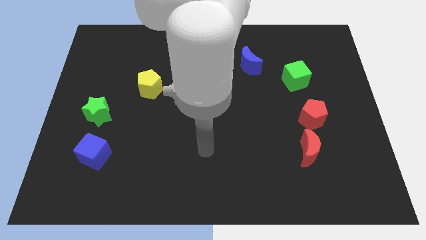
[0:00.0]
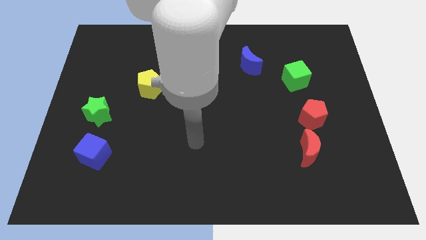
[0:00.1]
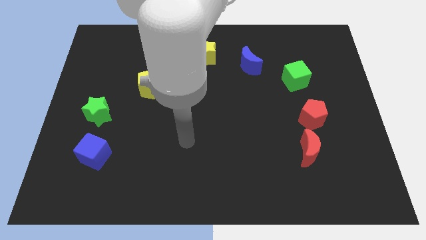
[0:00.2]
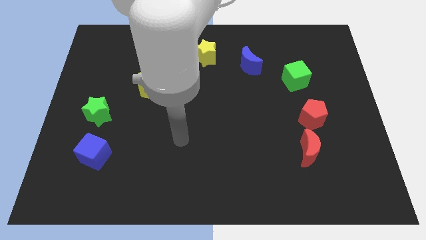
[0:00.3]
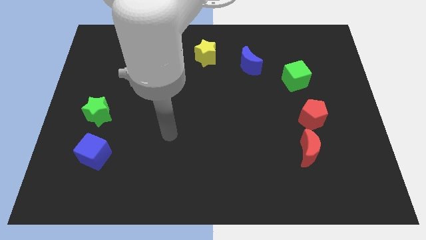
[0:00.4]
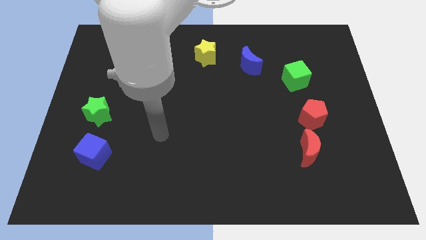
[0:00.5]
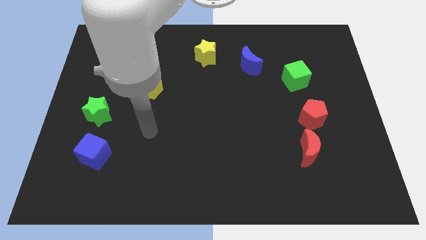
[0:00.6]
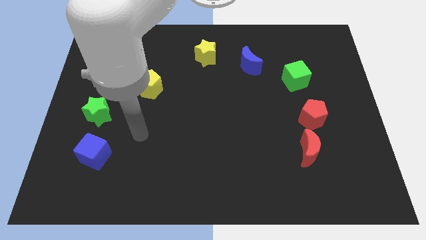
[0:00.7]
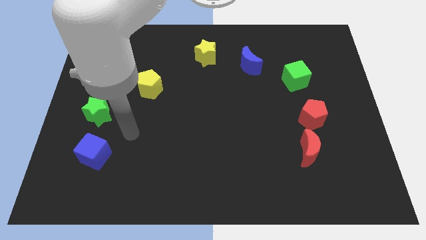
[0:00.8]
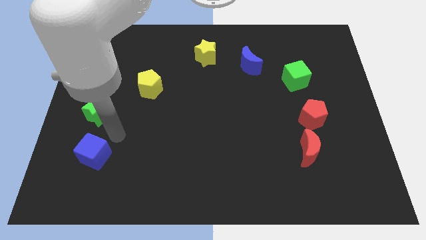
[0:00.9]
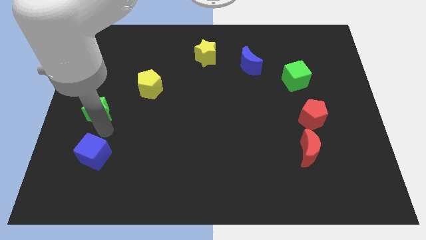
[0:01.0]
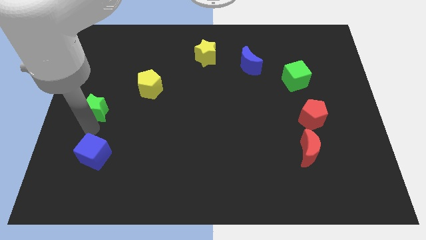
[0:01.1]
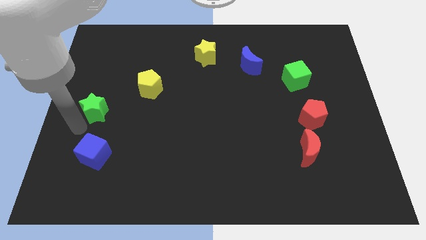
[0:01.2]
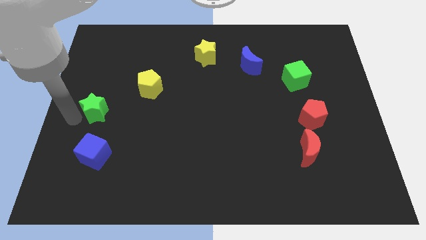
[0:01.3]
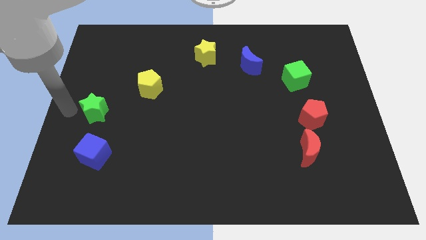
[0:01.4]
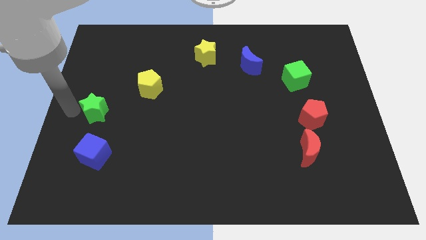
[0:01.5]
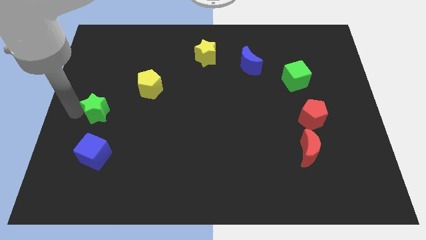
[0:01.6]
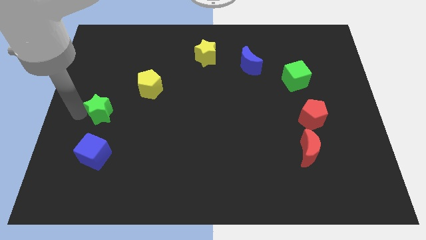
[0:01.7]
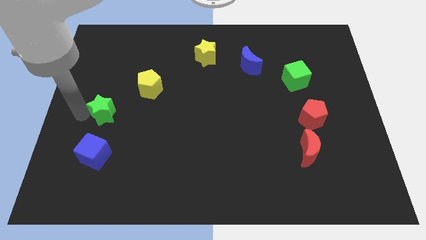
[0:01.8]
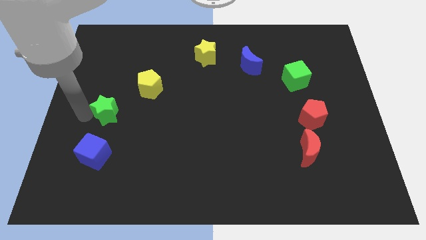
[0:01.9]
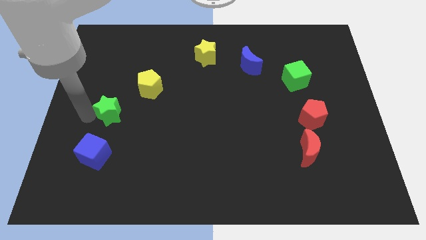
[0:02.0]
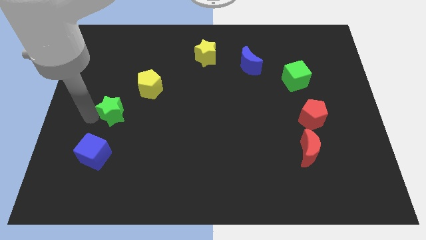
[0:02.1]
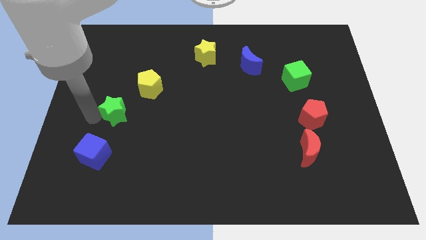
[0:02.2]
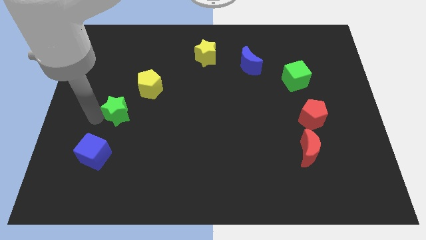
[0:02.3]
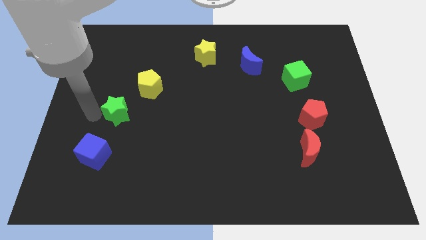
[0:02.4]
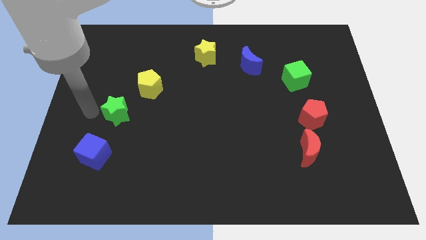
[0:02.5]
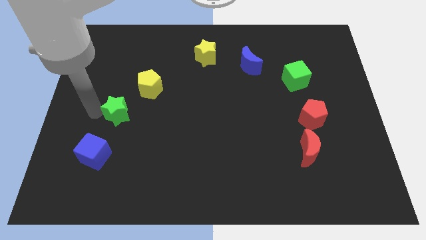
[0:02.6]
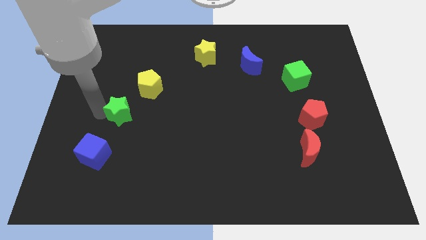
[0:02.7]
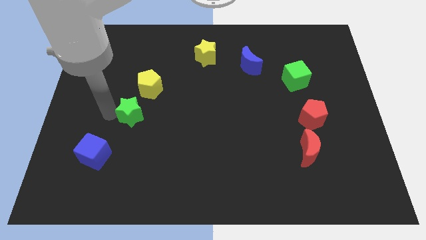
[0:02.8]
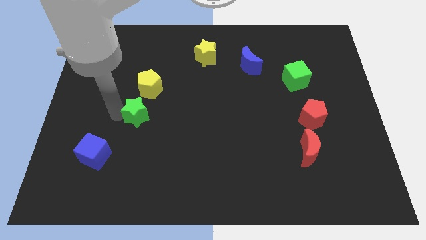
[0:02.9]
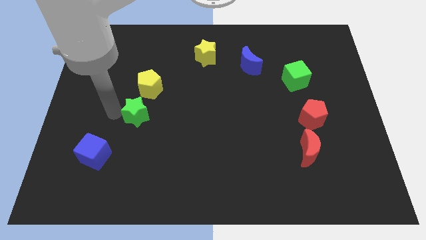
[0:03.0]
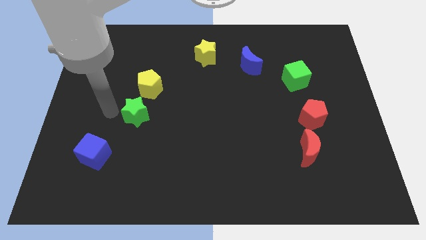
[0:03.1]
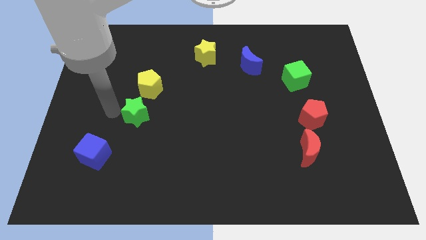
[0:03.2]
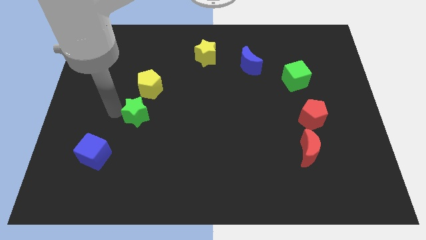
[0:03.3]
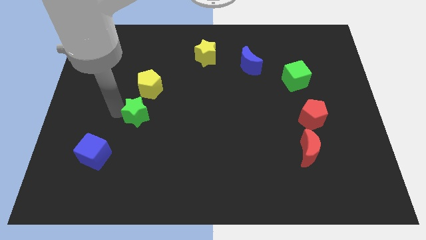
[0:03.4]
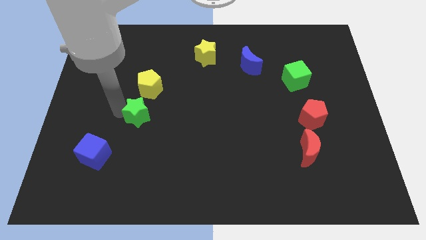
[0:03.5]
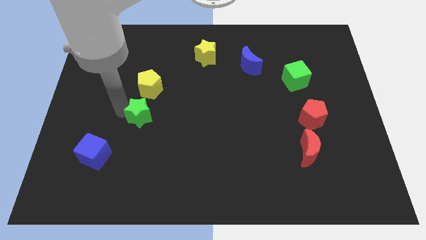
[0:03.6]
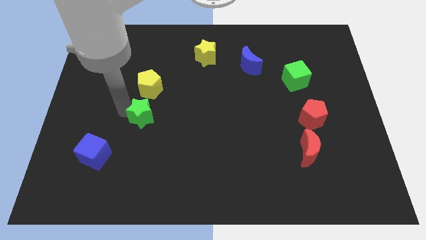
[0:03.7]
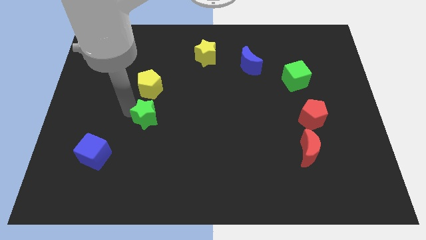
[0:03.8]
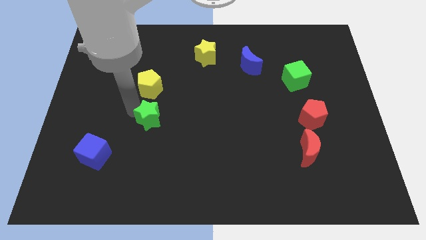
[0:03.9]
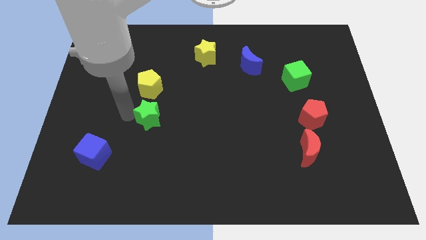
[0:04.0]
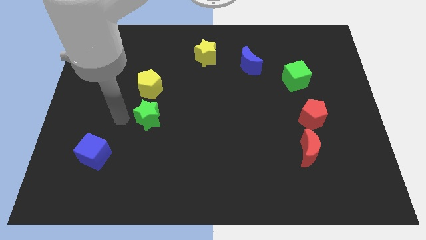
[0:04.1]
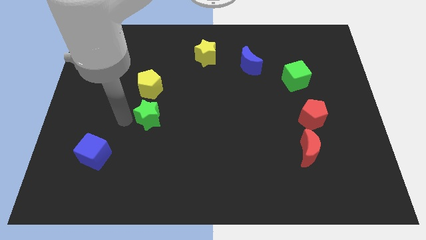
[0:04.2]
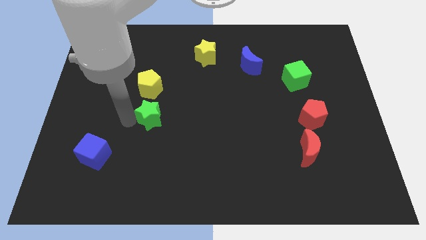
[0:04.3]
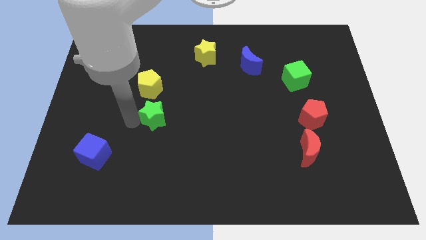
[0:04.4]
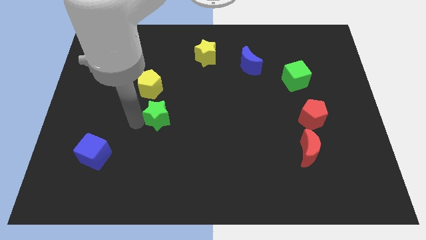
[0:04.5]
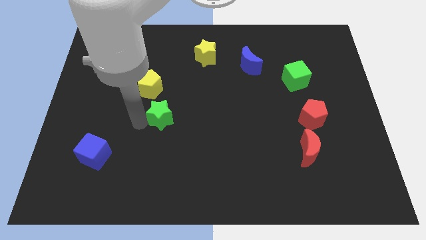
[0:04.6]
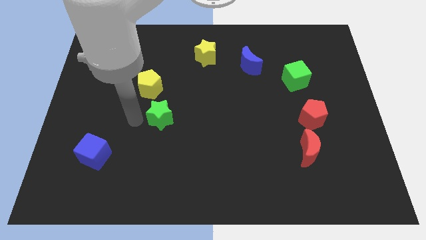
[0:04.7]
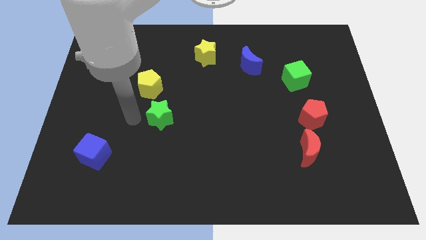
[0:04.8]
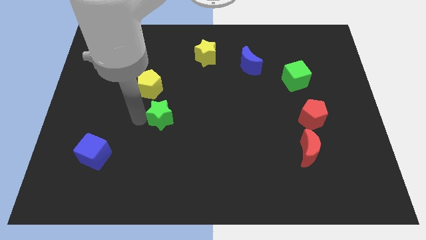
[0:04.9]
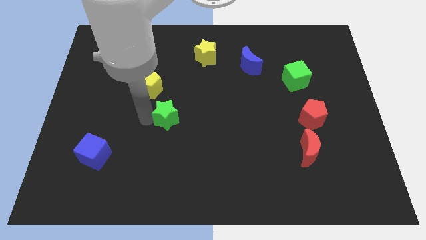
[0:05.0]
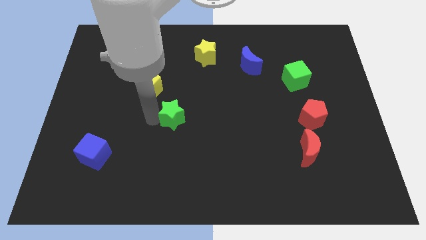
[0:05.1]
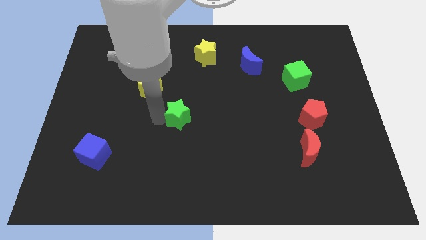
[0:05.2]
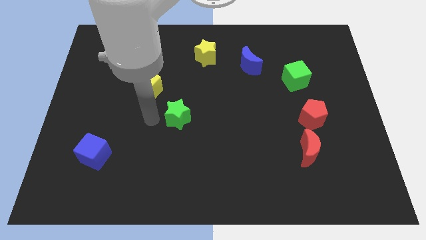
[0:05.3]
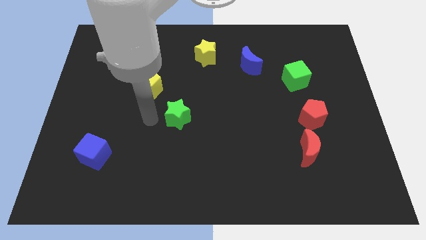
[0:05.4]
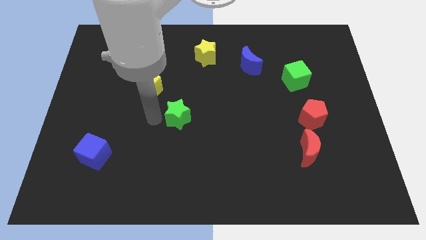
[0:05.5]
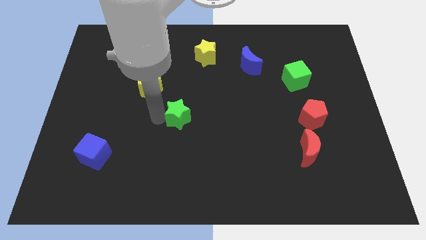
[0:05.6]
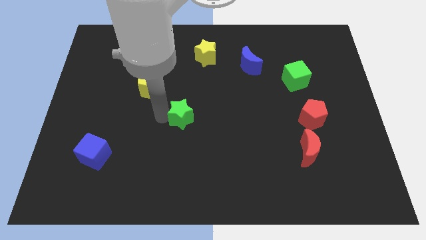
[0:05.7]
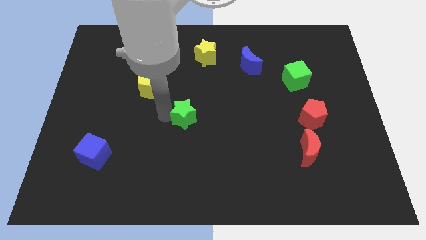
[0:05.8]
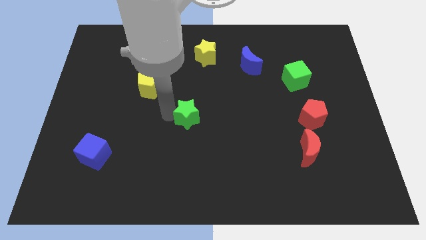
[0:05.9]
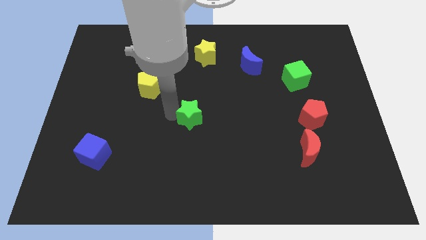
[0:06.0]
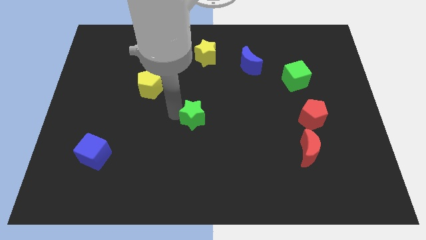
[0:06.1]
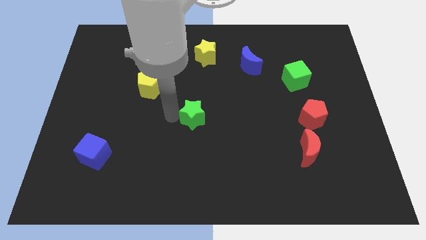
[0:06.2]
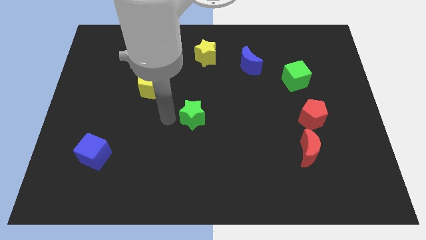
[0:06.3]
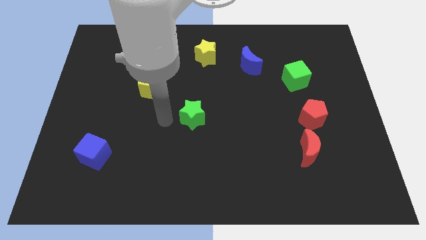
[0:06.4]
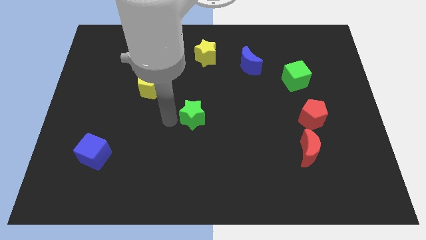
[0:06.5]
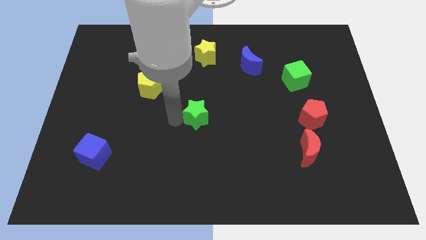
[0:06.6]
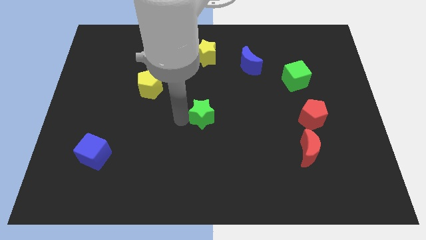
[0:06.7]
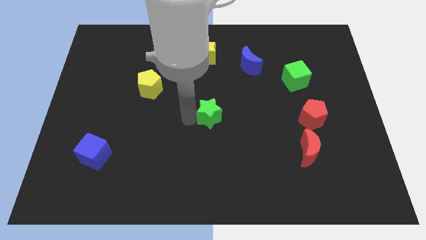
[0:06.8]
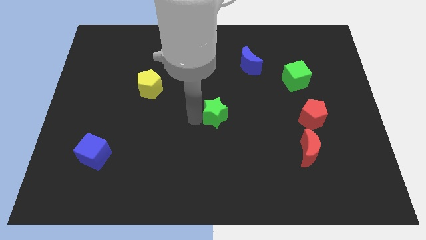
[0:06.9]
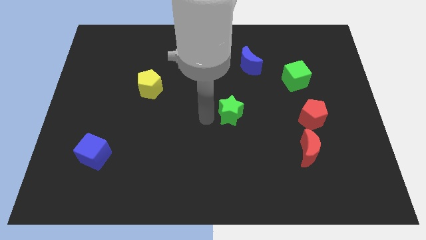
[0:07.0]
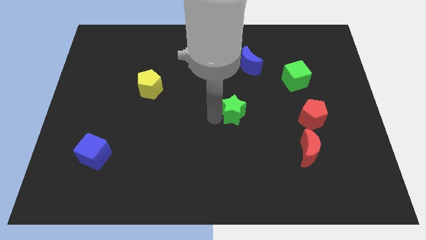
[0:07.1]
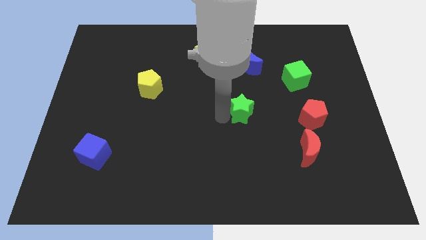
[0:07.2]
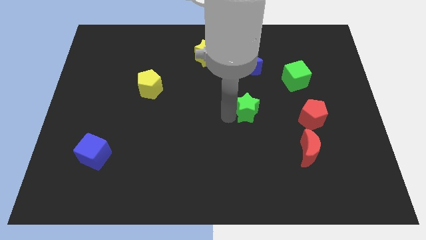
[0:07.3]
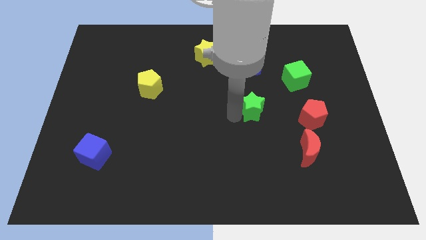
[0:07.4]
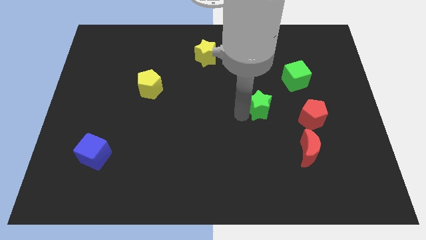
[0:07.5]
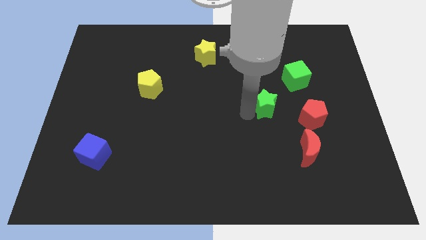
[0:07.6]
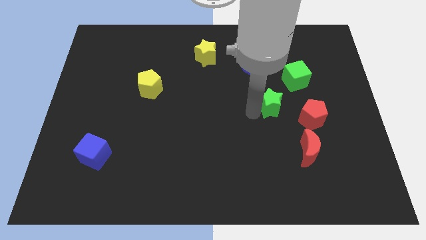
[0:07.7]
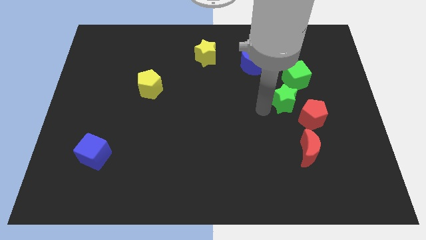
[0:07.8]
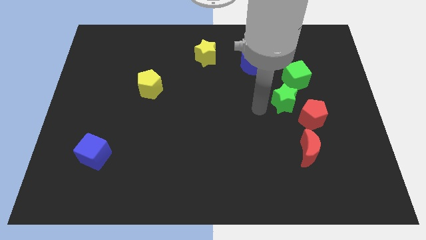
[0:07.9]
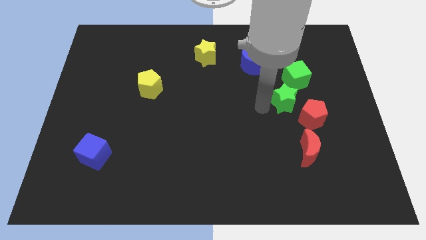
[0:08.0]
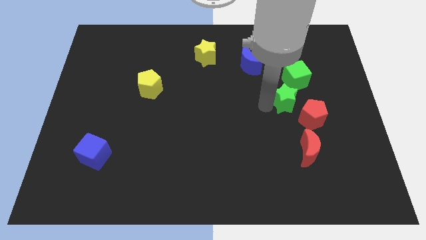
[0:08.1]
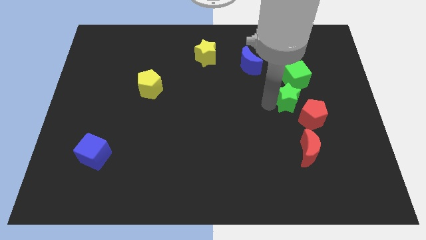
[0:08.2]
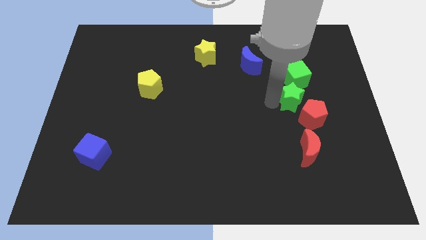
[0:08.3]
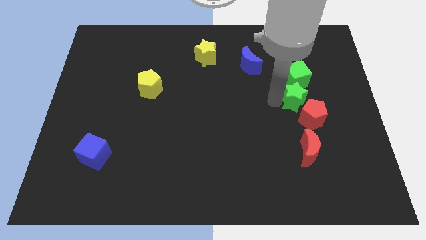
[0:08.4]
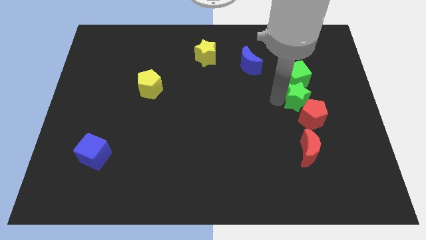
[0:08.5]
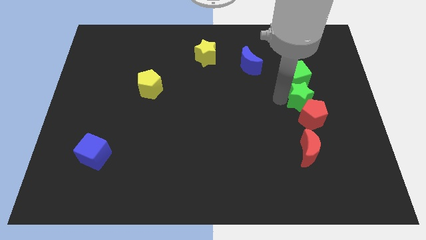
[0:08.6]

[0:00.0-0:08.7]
slide the green star to the bottom right side of the green cube
